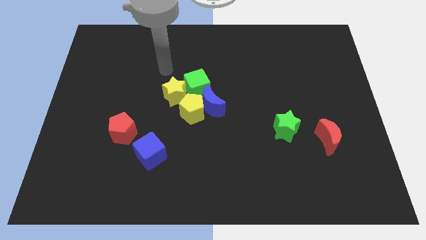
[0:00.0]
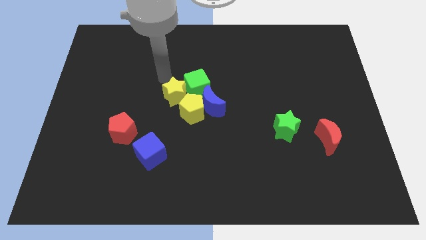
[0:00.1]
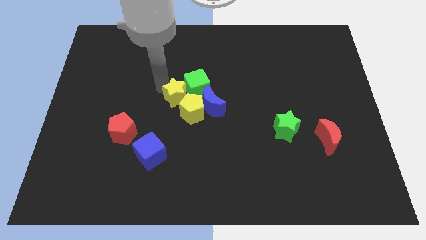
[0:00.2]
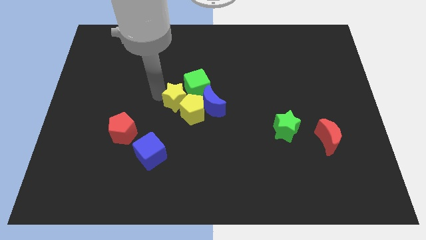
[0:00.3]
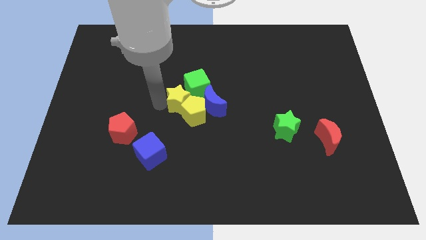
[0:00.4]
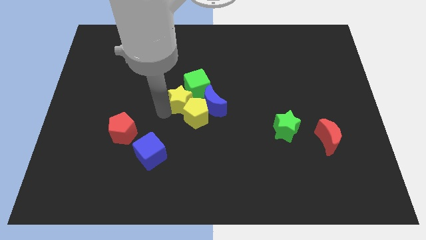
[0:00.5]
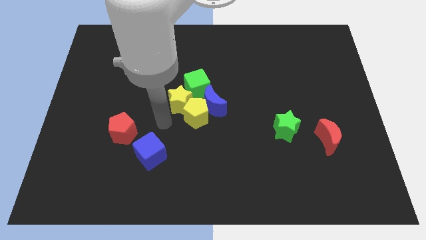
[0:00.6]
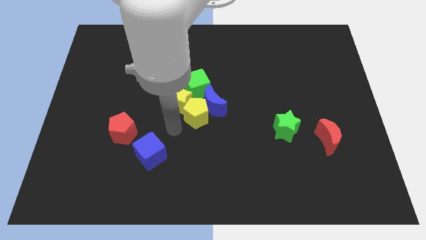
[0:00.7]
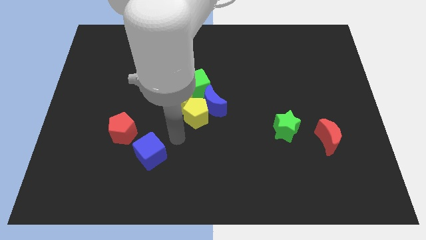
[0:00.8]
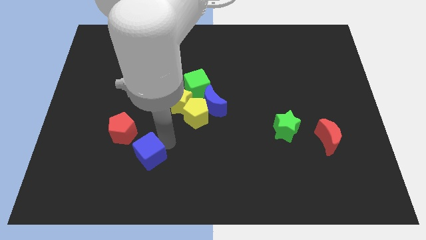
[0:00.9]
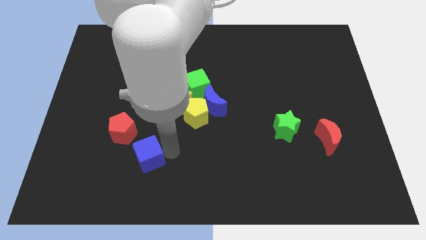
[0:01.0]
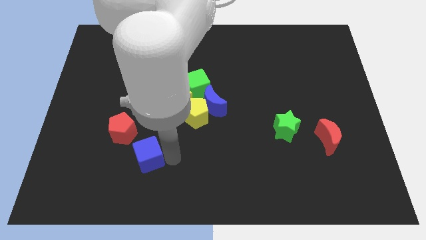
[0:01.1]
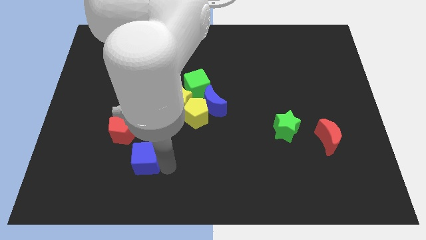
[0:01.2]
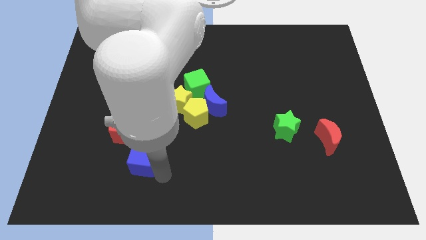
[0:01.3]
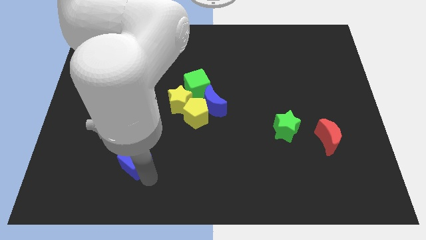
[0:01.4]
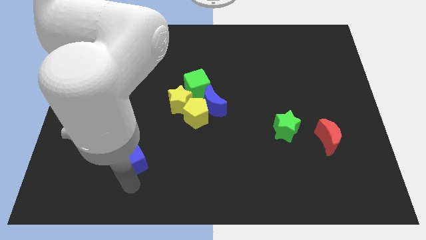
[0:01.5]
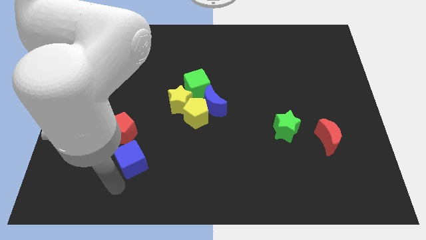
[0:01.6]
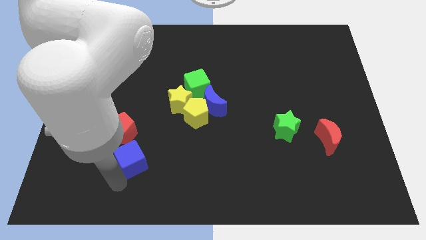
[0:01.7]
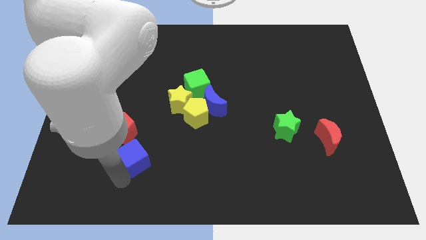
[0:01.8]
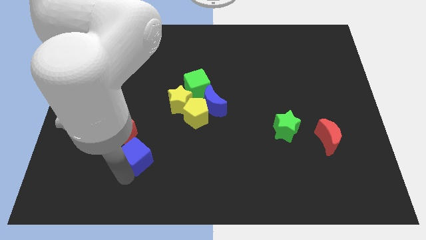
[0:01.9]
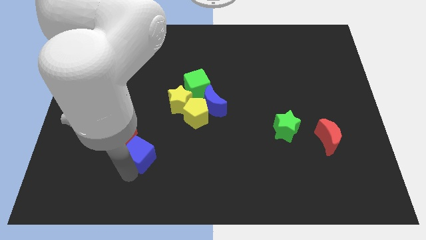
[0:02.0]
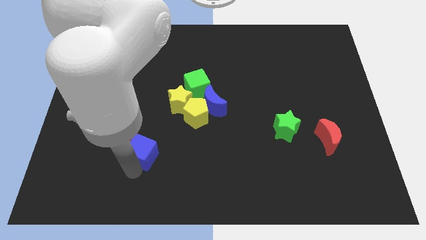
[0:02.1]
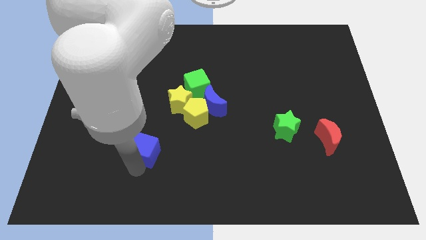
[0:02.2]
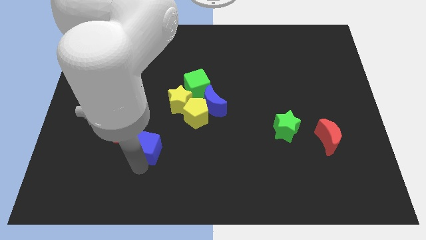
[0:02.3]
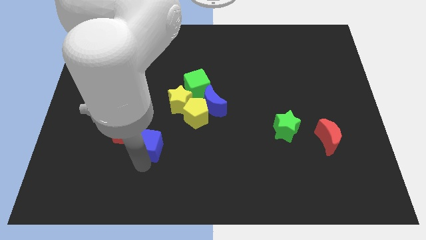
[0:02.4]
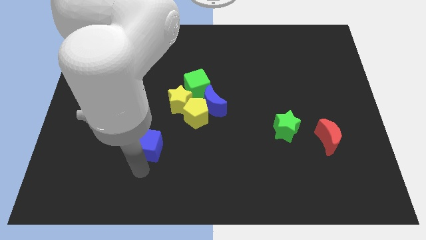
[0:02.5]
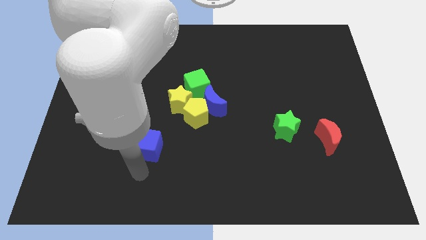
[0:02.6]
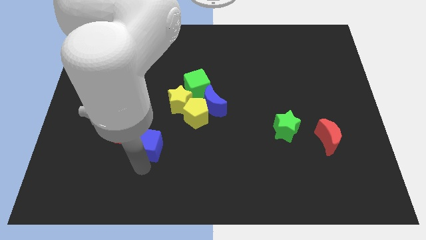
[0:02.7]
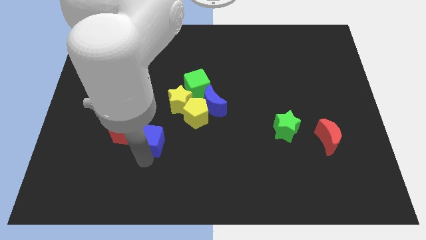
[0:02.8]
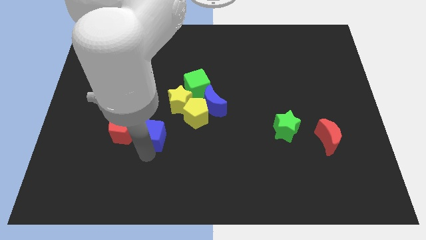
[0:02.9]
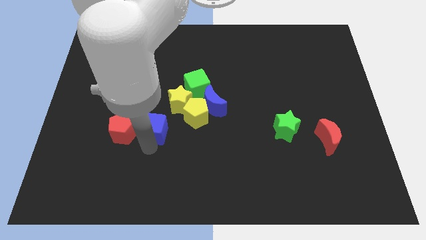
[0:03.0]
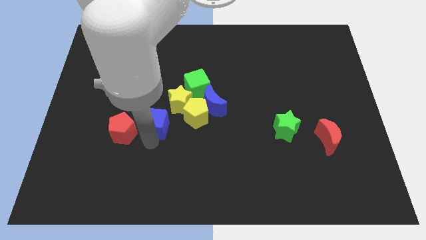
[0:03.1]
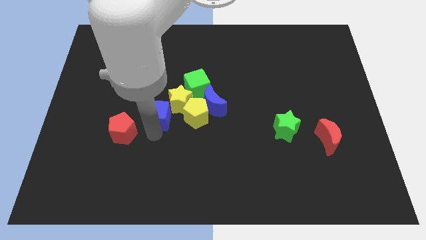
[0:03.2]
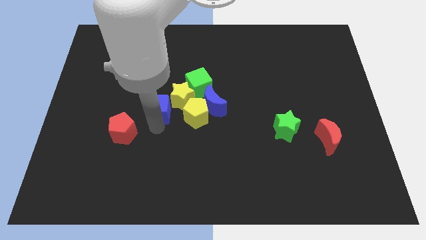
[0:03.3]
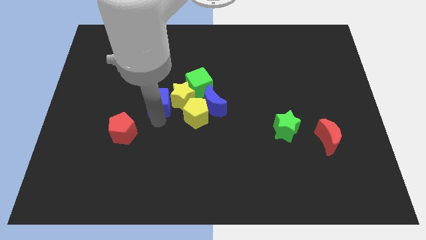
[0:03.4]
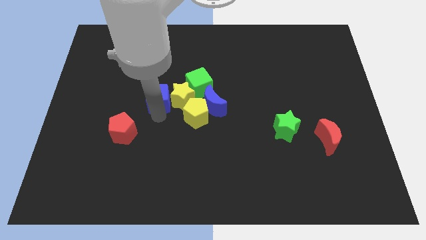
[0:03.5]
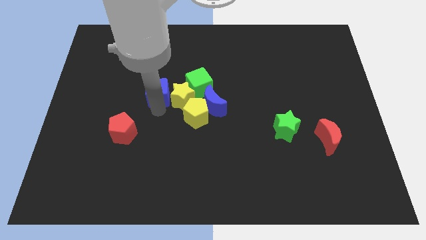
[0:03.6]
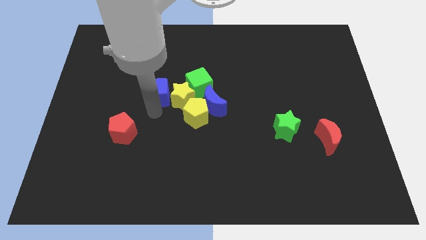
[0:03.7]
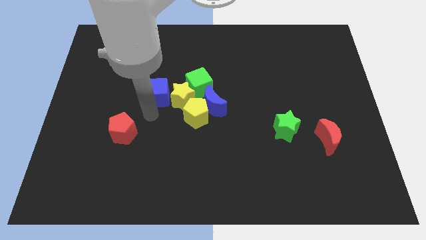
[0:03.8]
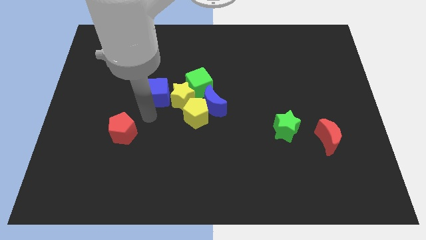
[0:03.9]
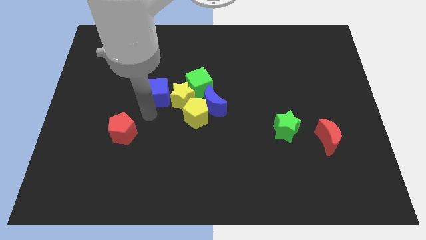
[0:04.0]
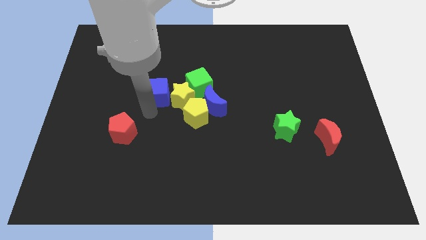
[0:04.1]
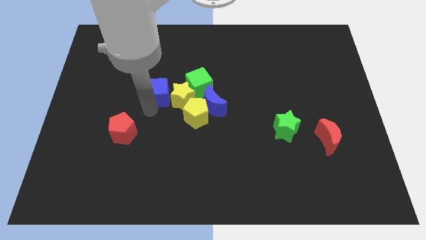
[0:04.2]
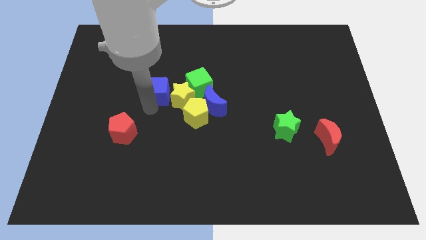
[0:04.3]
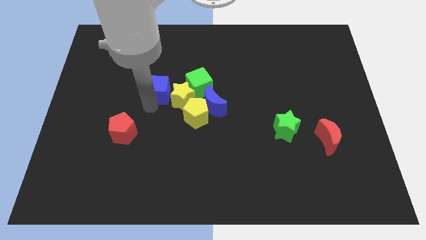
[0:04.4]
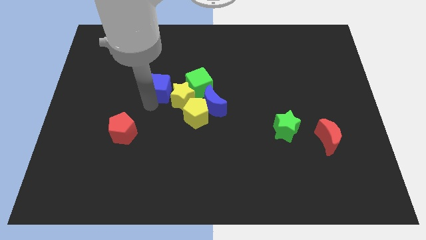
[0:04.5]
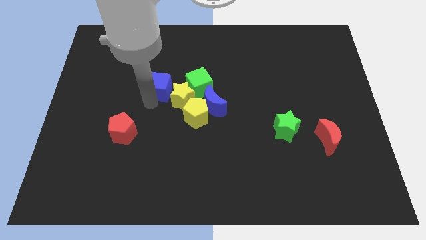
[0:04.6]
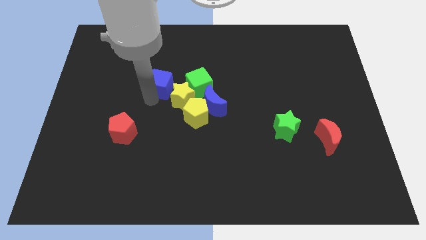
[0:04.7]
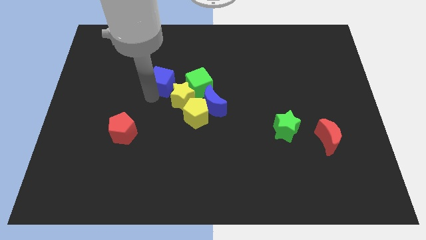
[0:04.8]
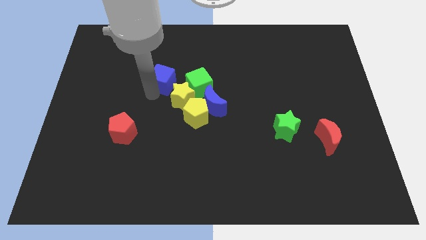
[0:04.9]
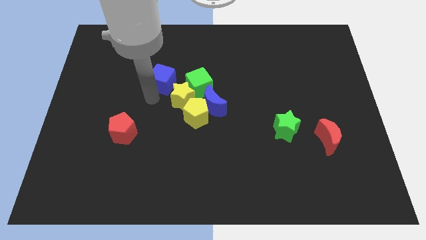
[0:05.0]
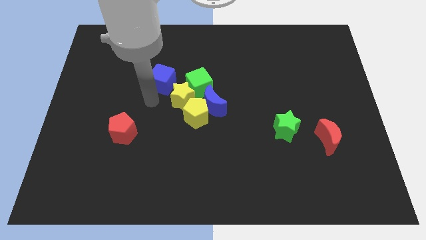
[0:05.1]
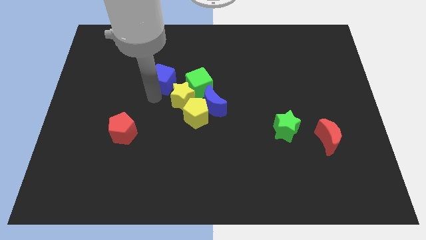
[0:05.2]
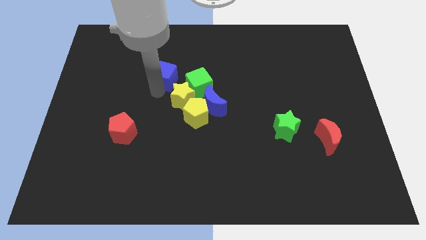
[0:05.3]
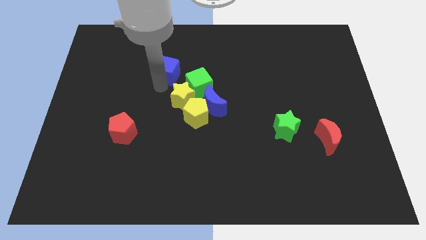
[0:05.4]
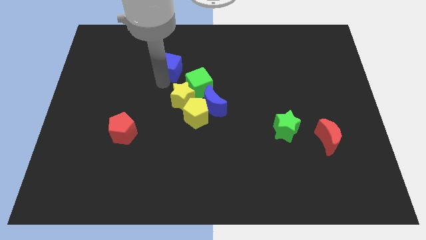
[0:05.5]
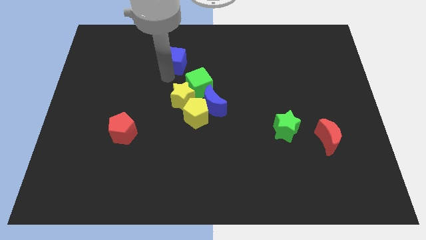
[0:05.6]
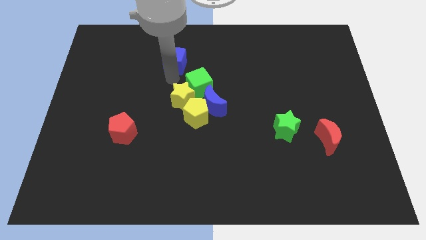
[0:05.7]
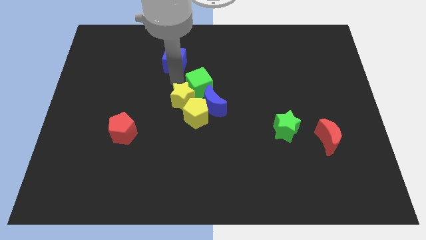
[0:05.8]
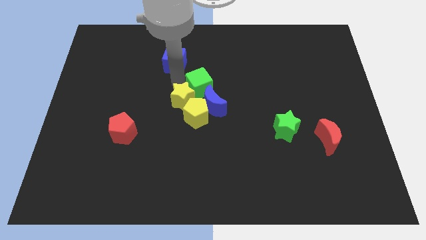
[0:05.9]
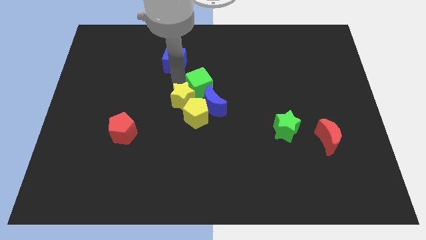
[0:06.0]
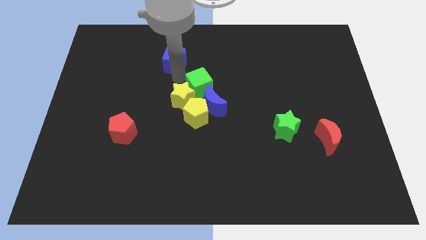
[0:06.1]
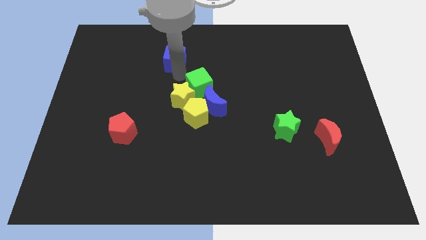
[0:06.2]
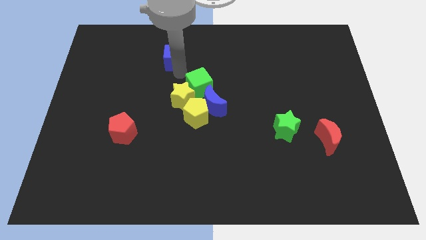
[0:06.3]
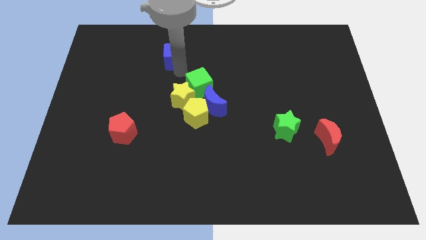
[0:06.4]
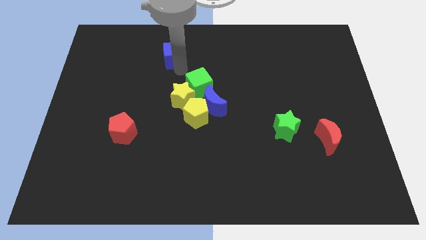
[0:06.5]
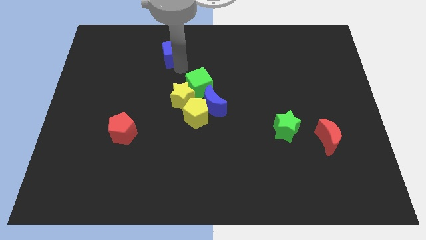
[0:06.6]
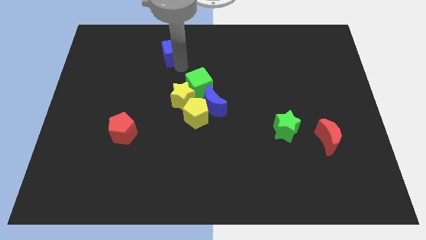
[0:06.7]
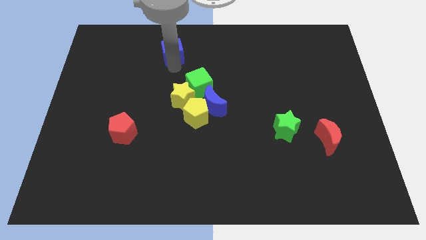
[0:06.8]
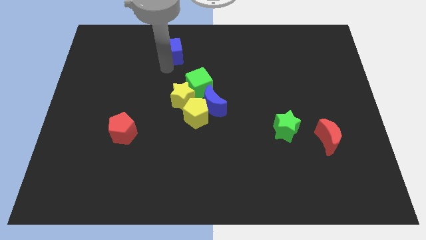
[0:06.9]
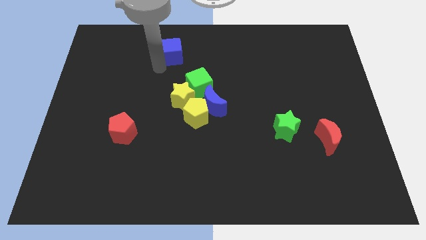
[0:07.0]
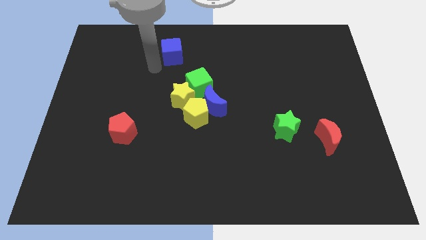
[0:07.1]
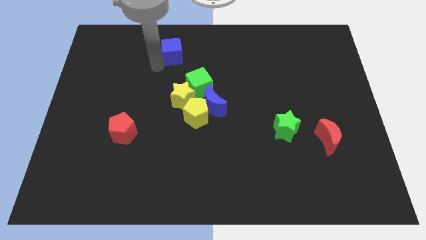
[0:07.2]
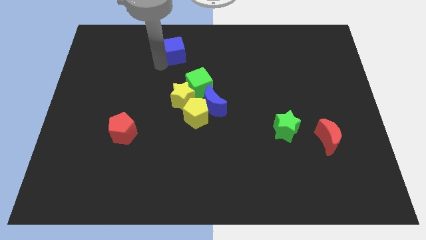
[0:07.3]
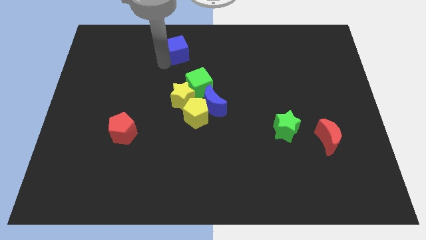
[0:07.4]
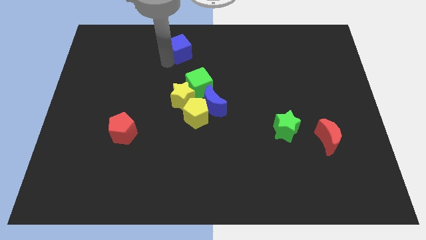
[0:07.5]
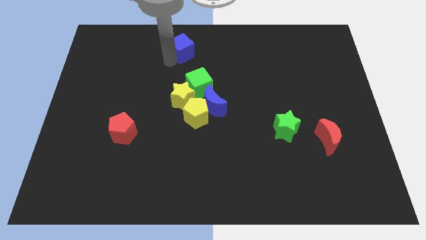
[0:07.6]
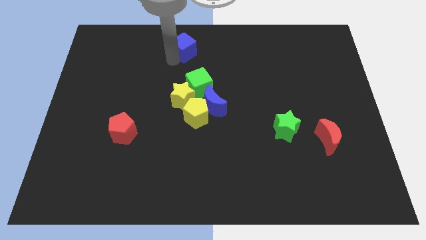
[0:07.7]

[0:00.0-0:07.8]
put the blue cube to the top
